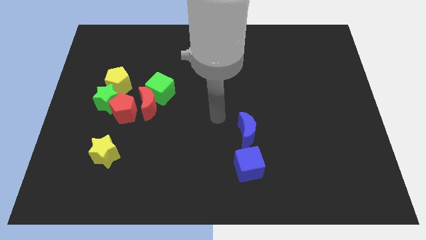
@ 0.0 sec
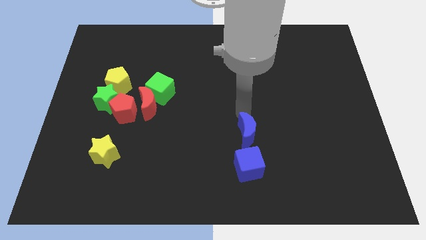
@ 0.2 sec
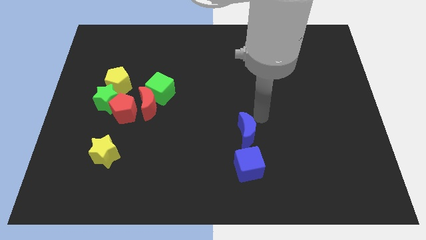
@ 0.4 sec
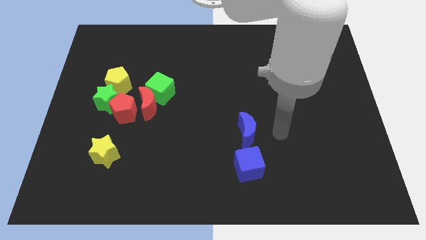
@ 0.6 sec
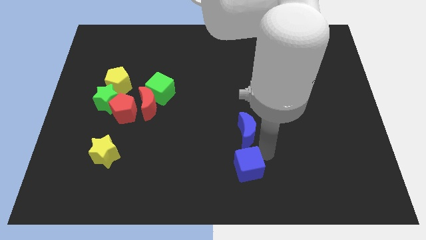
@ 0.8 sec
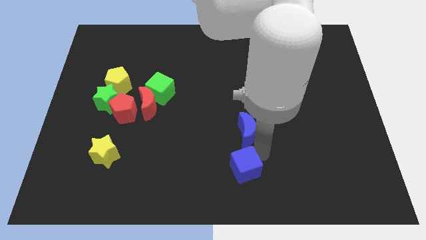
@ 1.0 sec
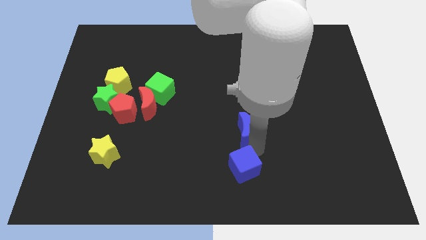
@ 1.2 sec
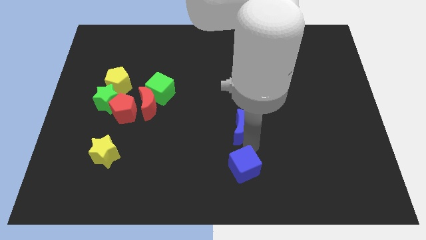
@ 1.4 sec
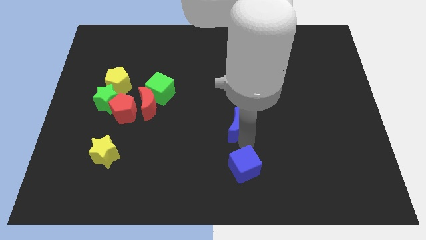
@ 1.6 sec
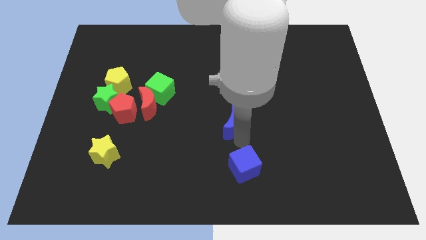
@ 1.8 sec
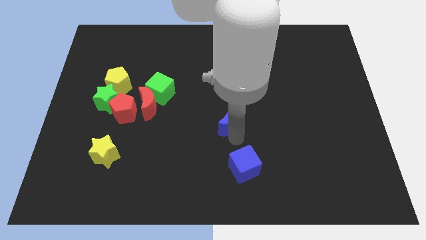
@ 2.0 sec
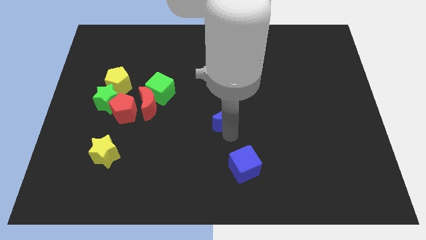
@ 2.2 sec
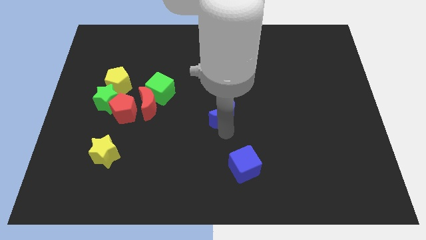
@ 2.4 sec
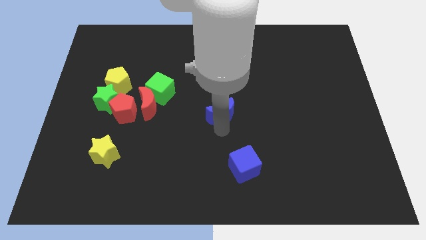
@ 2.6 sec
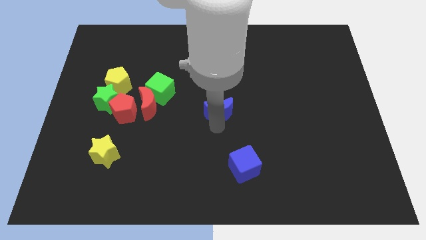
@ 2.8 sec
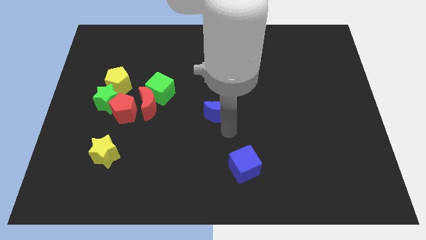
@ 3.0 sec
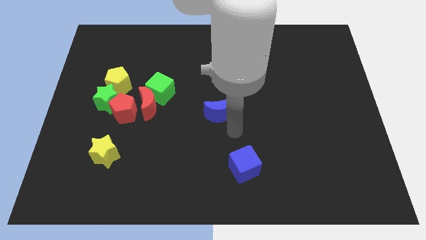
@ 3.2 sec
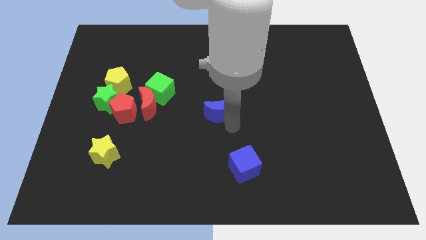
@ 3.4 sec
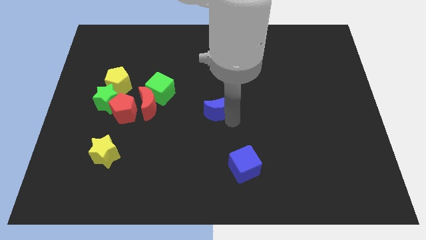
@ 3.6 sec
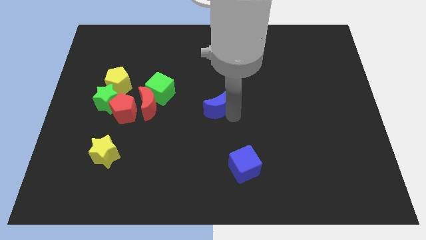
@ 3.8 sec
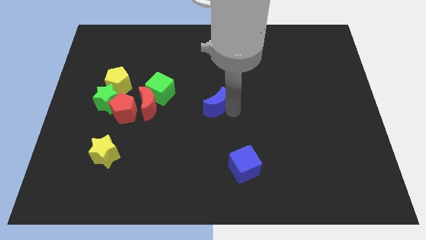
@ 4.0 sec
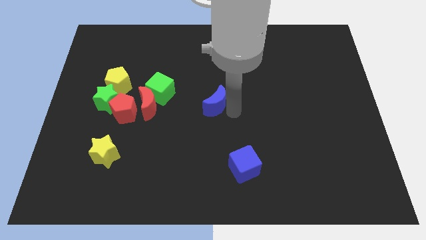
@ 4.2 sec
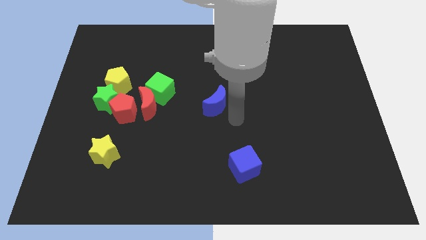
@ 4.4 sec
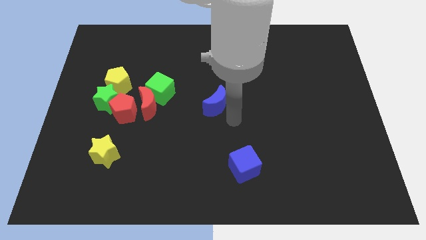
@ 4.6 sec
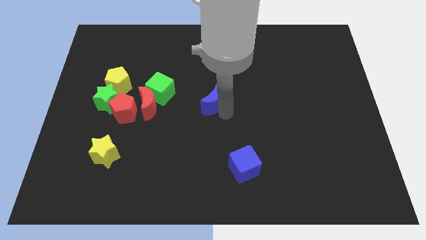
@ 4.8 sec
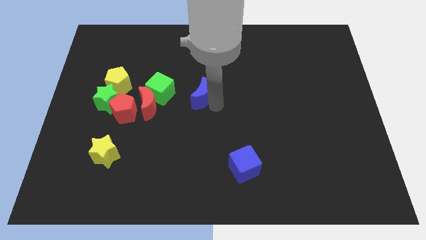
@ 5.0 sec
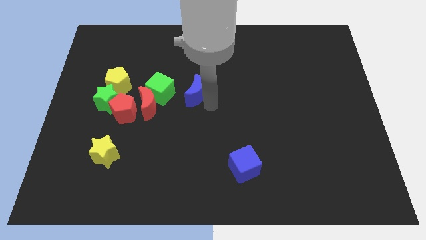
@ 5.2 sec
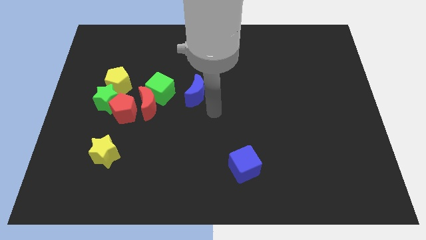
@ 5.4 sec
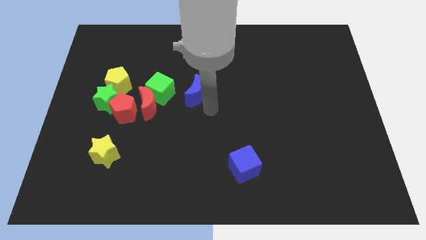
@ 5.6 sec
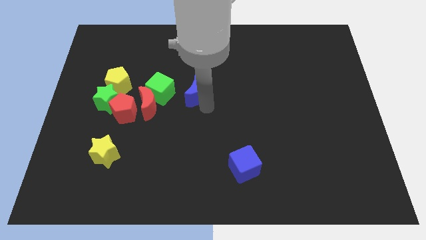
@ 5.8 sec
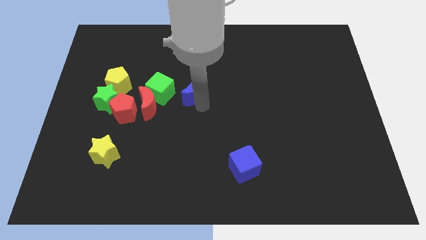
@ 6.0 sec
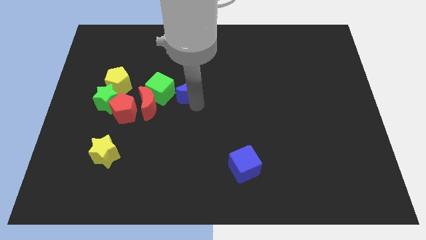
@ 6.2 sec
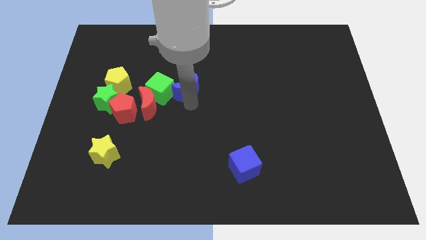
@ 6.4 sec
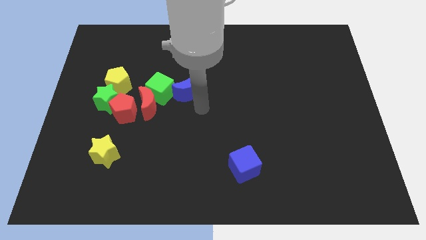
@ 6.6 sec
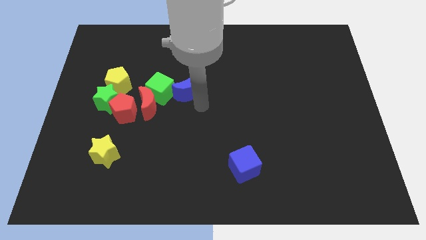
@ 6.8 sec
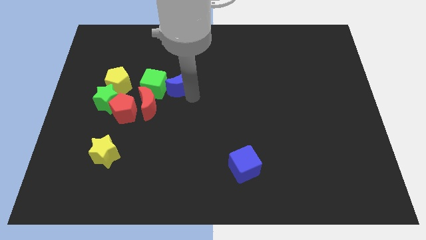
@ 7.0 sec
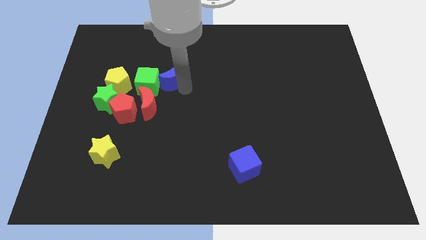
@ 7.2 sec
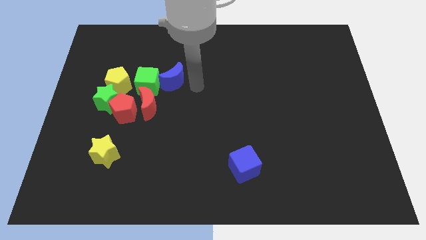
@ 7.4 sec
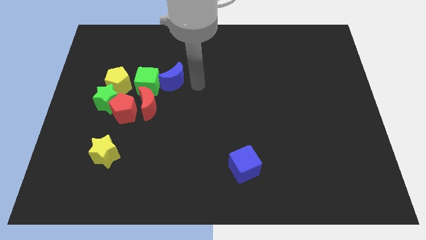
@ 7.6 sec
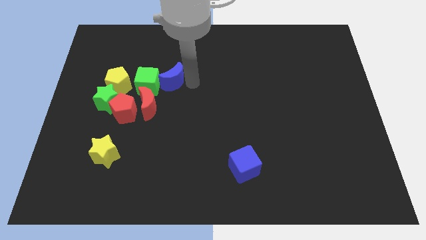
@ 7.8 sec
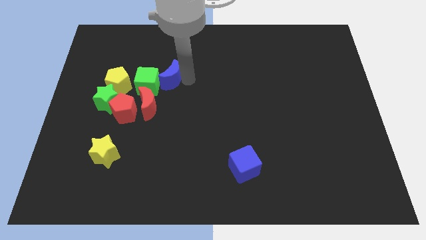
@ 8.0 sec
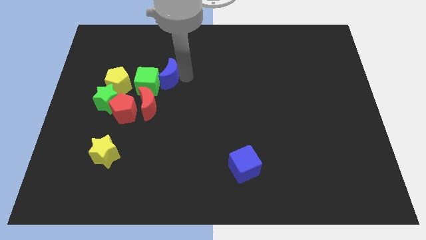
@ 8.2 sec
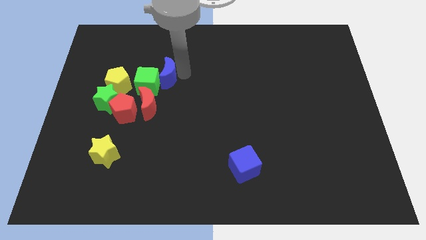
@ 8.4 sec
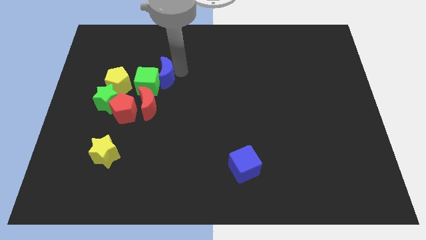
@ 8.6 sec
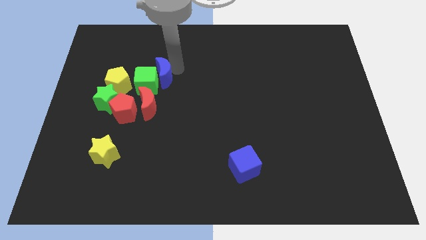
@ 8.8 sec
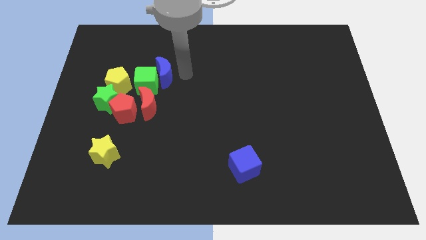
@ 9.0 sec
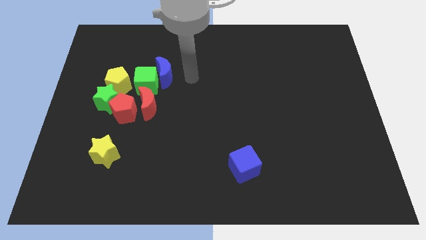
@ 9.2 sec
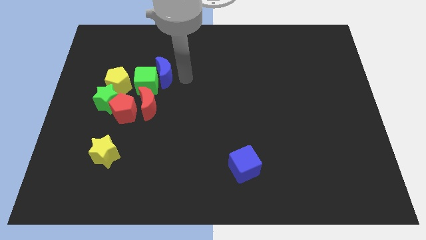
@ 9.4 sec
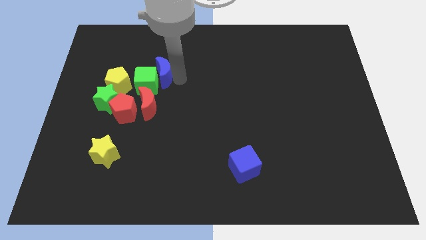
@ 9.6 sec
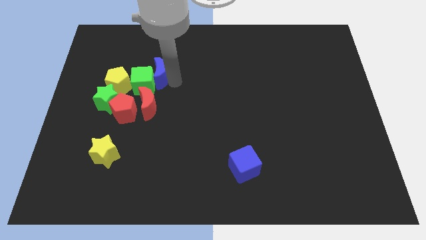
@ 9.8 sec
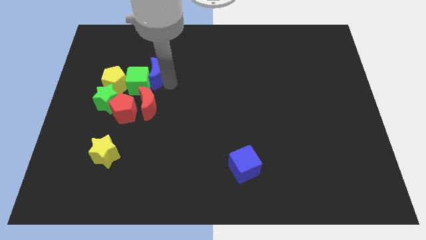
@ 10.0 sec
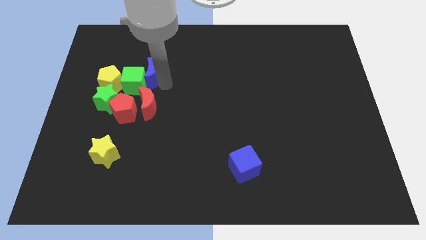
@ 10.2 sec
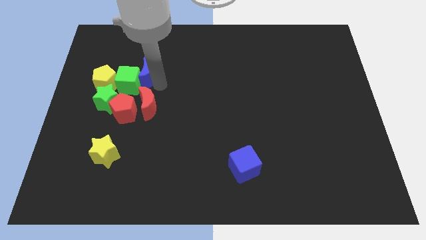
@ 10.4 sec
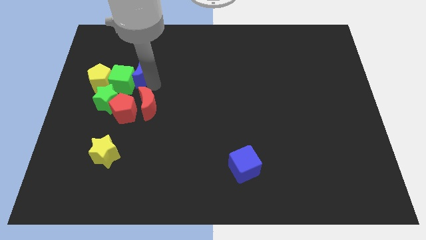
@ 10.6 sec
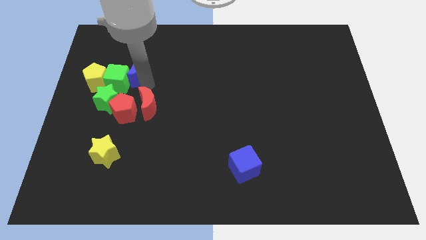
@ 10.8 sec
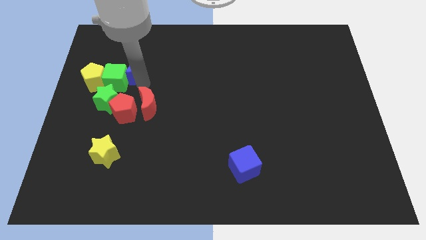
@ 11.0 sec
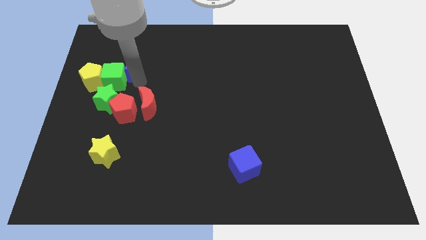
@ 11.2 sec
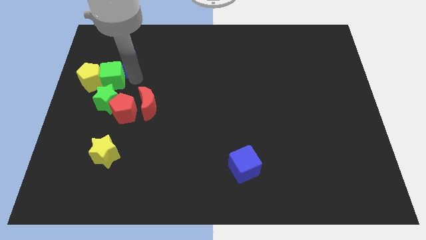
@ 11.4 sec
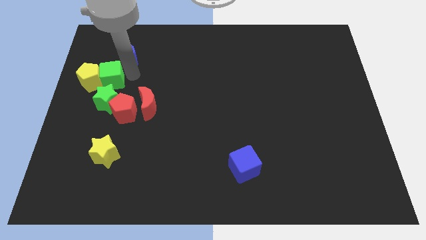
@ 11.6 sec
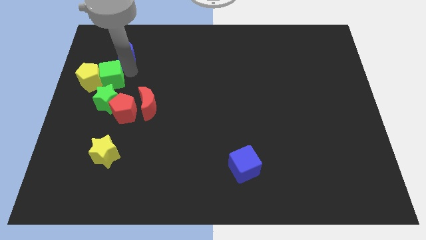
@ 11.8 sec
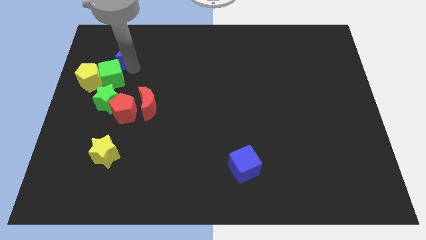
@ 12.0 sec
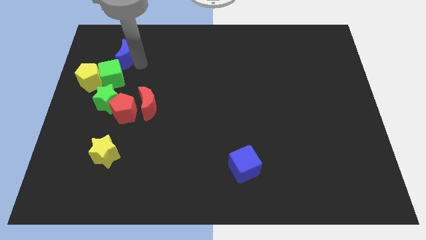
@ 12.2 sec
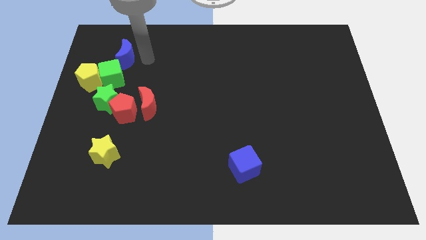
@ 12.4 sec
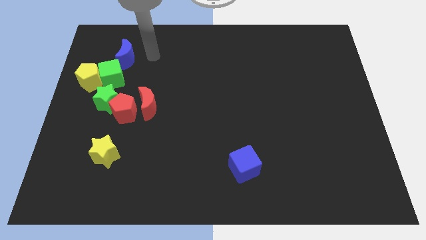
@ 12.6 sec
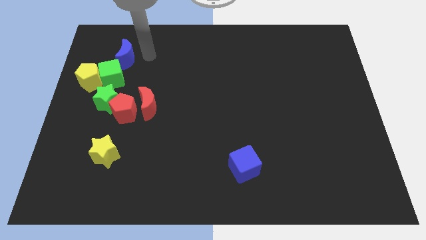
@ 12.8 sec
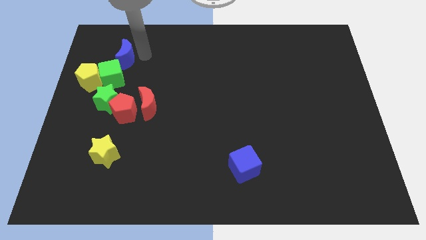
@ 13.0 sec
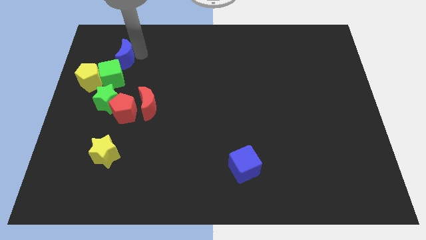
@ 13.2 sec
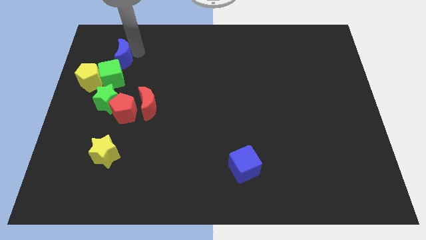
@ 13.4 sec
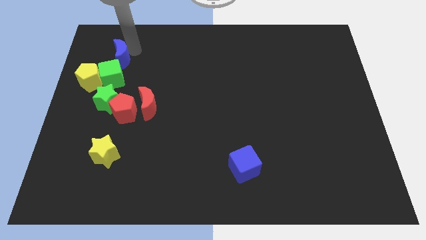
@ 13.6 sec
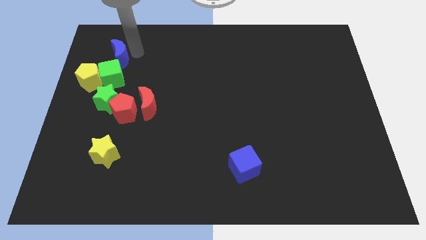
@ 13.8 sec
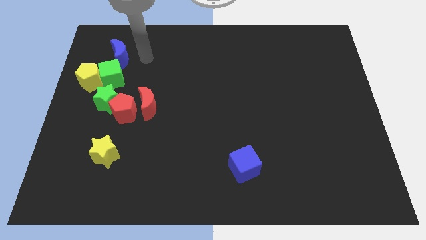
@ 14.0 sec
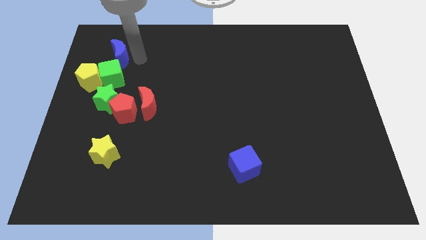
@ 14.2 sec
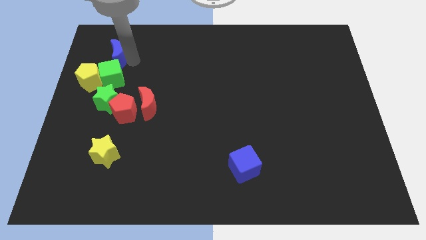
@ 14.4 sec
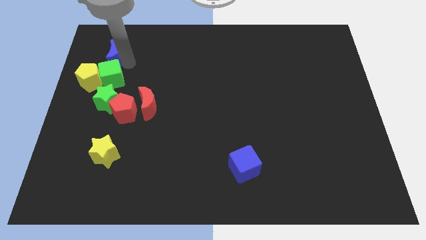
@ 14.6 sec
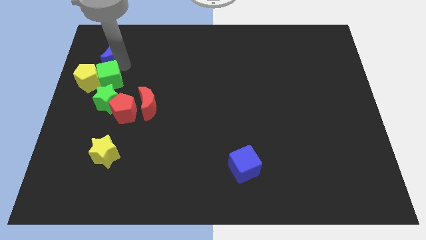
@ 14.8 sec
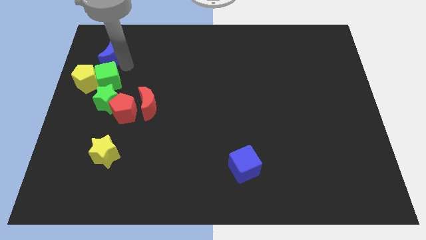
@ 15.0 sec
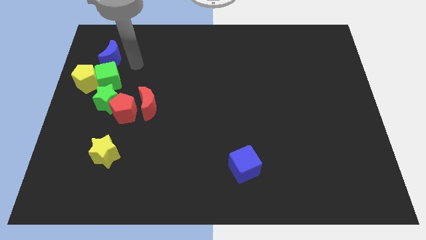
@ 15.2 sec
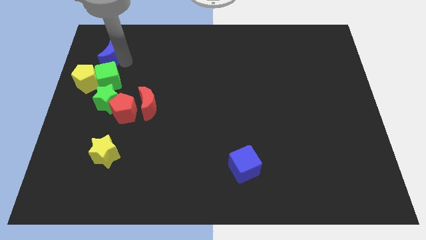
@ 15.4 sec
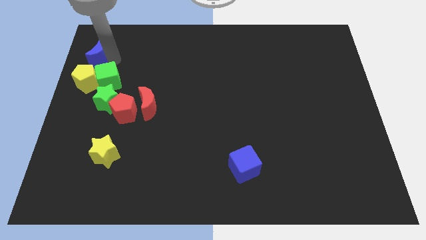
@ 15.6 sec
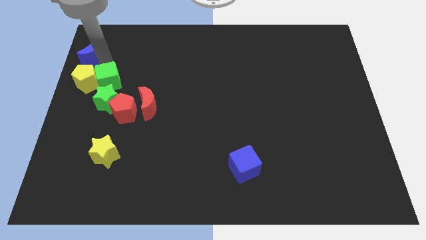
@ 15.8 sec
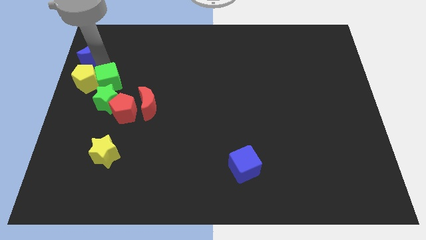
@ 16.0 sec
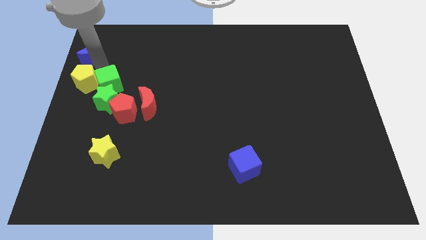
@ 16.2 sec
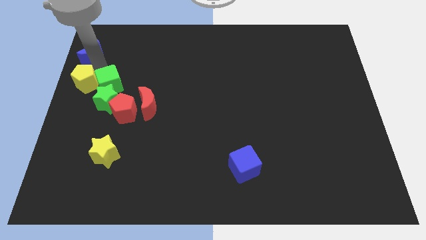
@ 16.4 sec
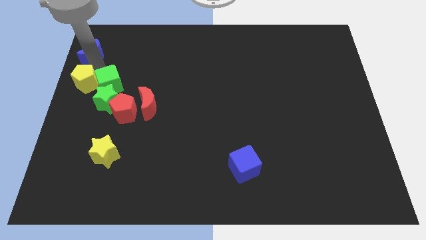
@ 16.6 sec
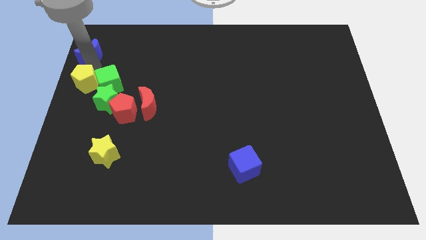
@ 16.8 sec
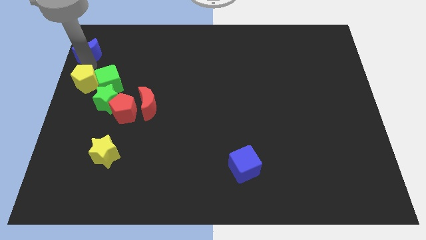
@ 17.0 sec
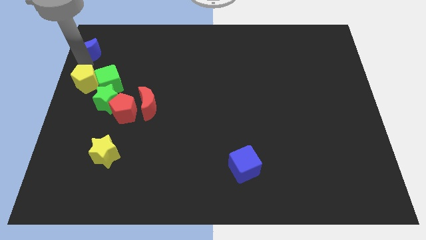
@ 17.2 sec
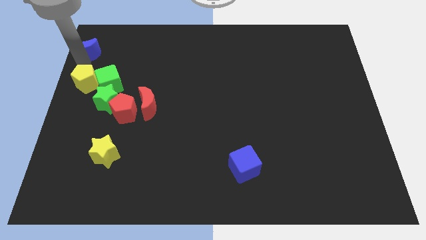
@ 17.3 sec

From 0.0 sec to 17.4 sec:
put the blue moon to the top left corner
